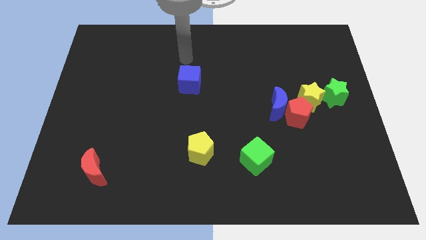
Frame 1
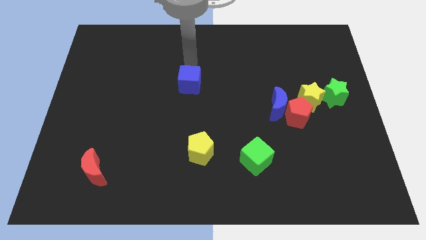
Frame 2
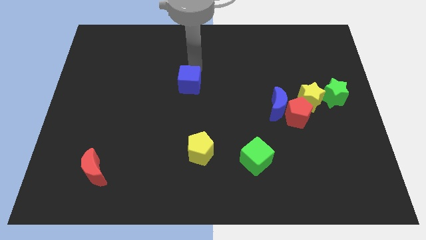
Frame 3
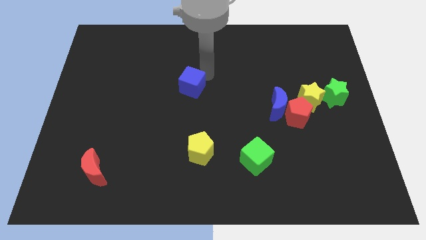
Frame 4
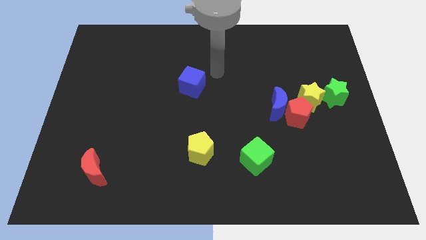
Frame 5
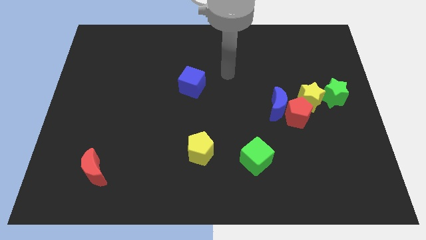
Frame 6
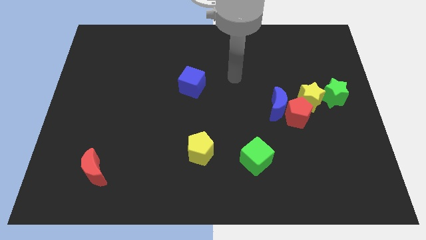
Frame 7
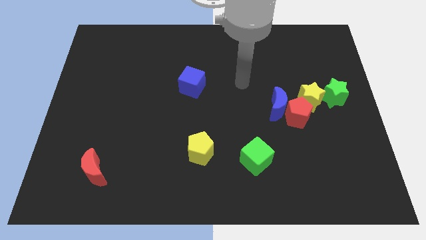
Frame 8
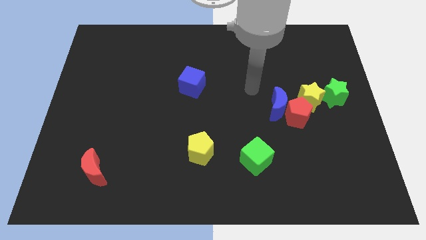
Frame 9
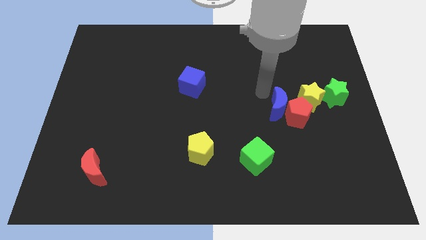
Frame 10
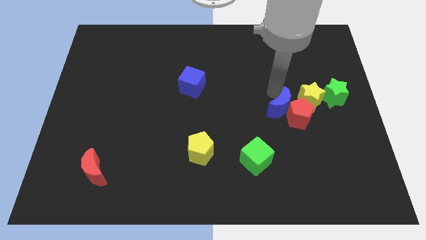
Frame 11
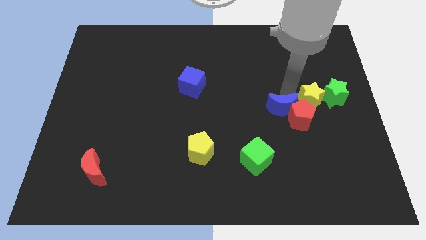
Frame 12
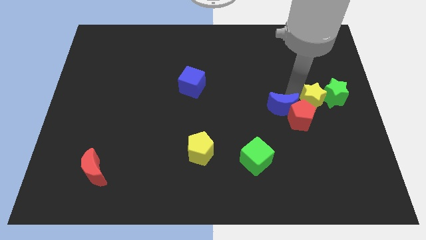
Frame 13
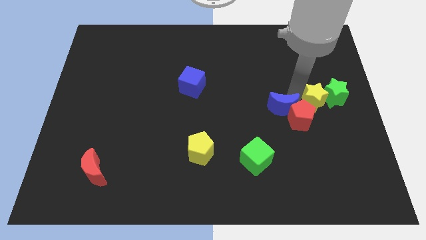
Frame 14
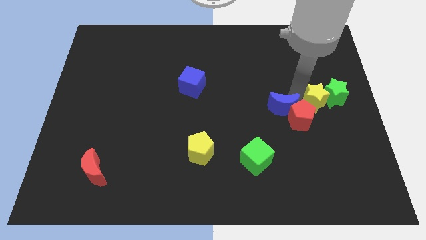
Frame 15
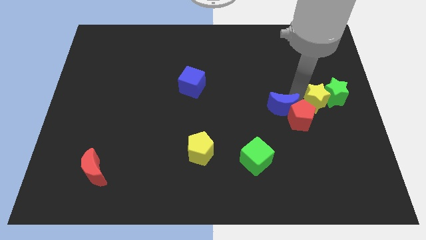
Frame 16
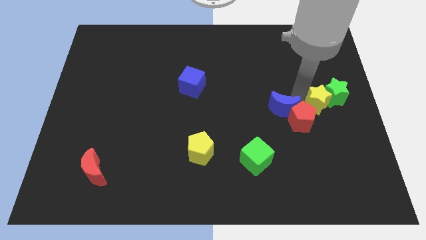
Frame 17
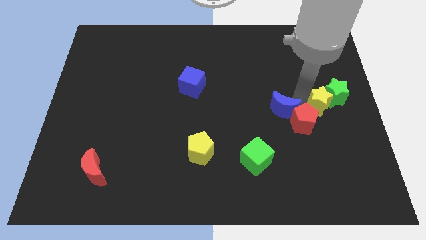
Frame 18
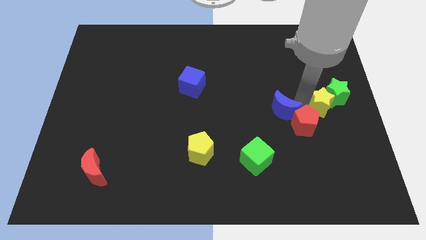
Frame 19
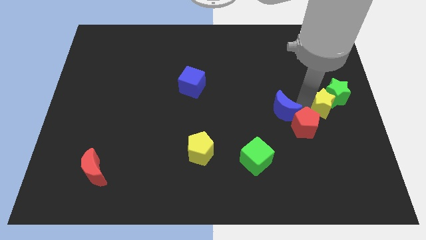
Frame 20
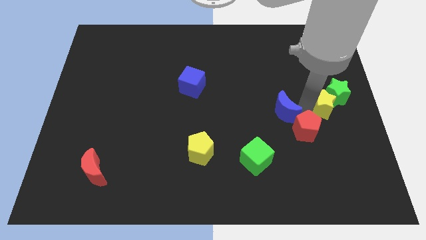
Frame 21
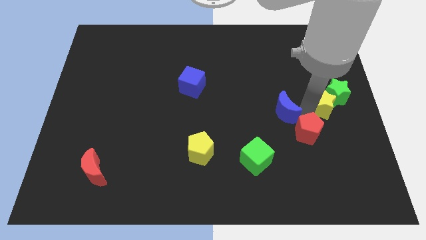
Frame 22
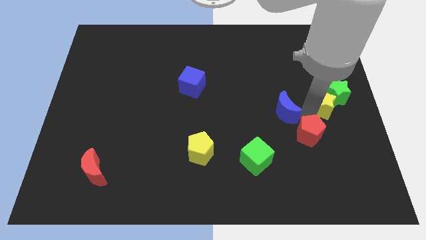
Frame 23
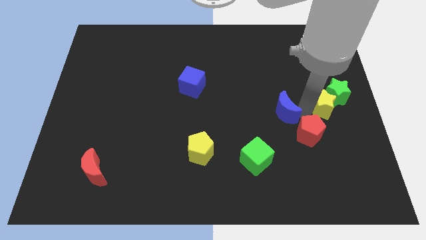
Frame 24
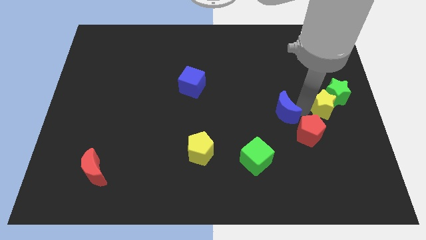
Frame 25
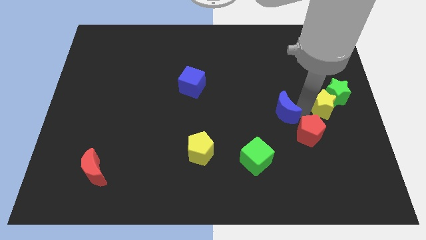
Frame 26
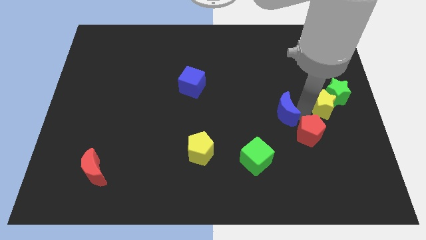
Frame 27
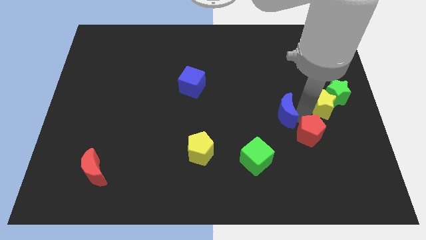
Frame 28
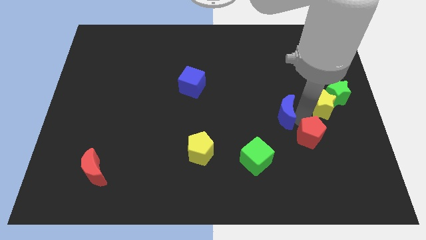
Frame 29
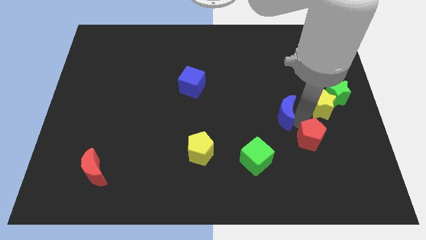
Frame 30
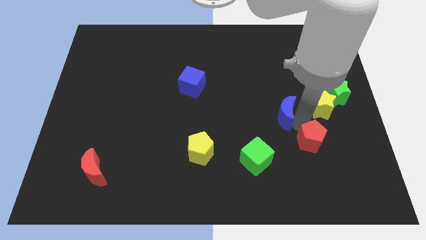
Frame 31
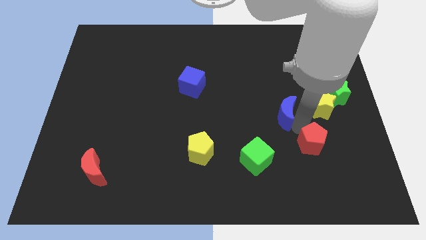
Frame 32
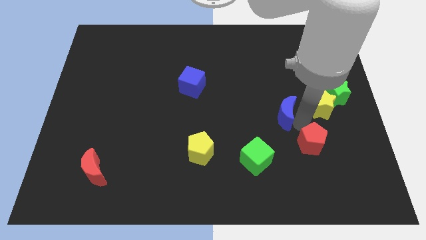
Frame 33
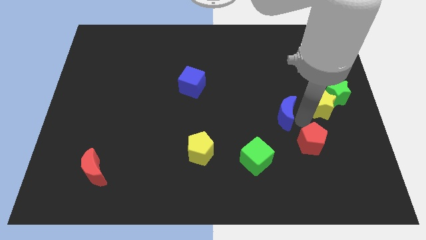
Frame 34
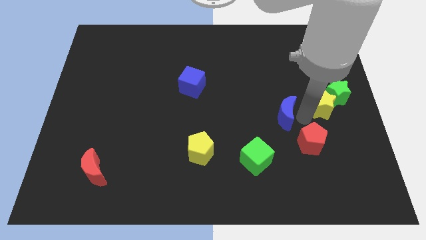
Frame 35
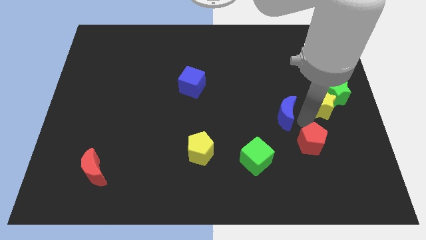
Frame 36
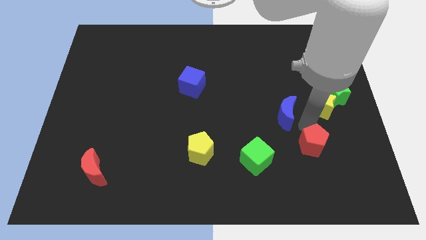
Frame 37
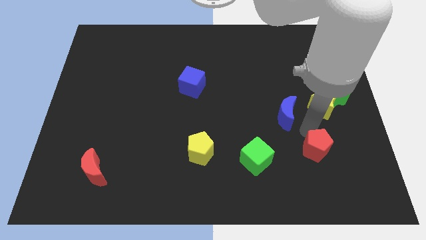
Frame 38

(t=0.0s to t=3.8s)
move the red pentagon away from the blue moon and yellow star

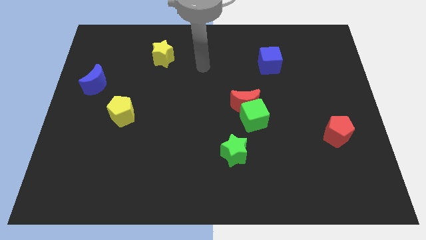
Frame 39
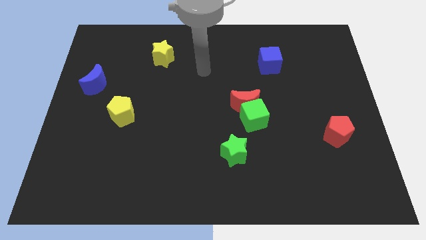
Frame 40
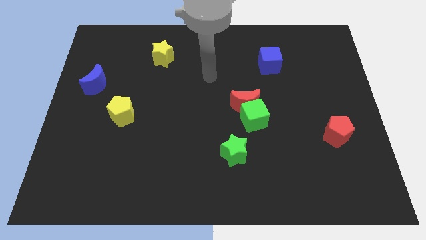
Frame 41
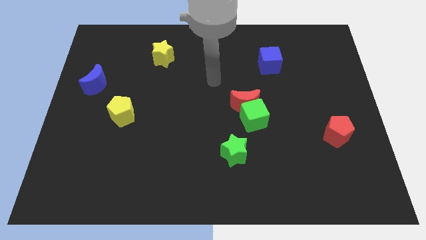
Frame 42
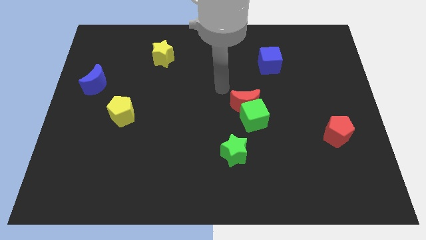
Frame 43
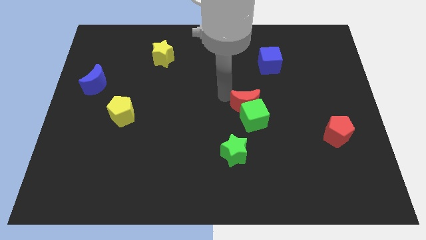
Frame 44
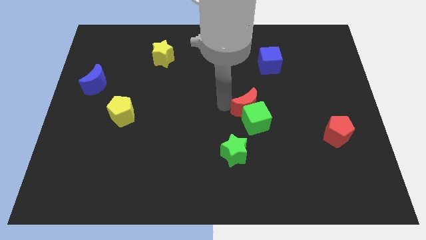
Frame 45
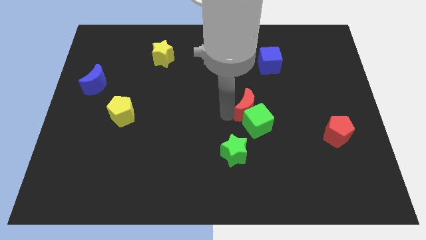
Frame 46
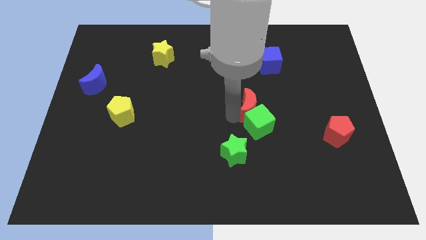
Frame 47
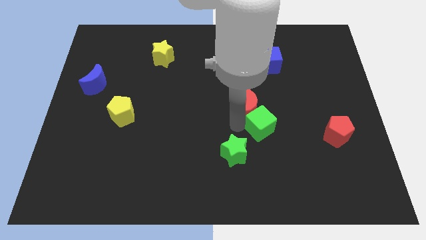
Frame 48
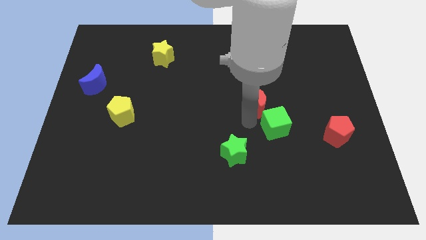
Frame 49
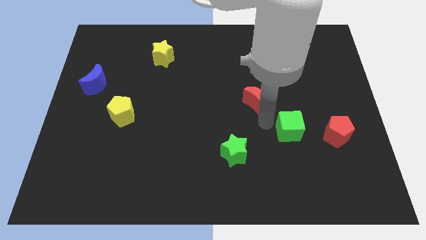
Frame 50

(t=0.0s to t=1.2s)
separate the red moon from the green cube

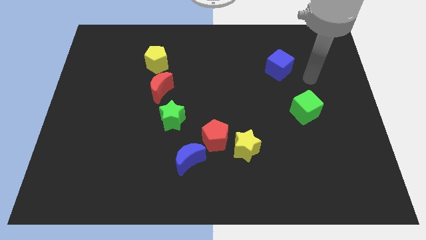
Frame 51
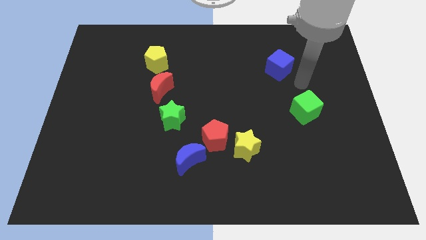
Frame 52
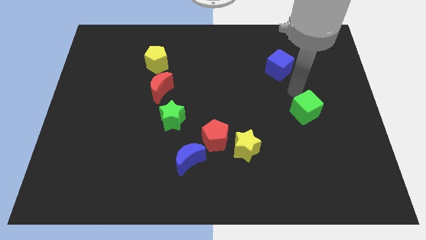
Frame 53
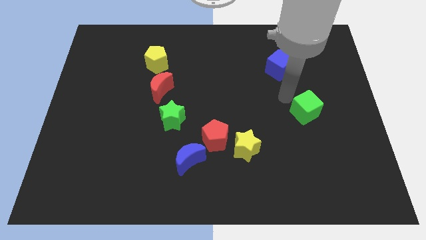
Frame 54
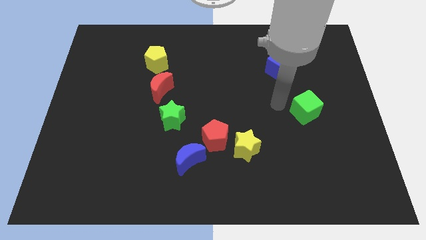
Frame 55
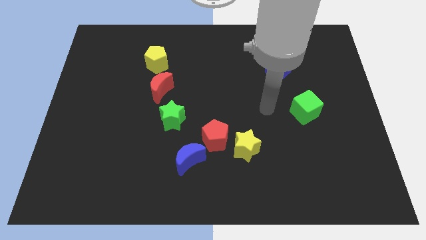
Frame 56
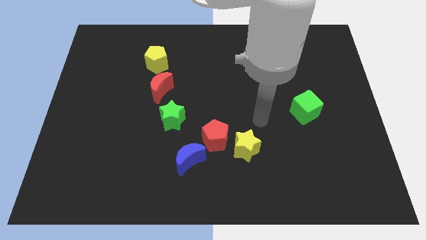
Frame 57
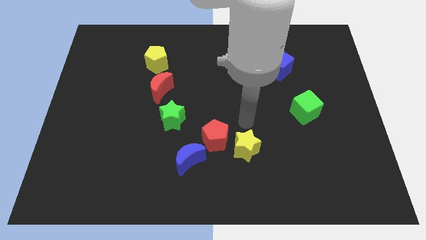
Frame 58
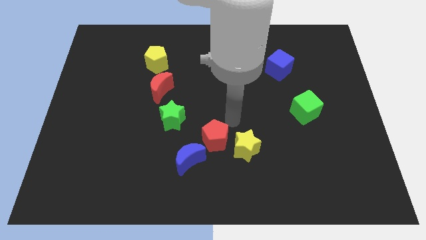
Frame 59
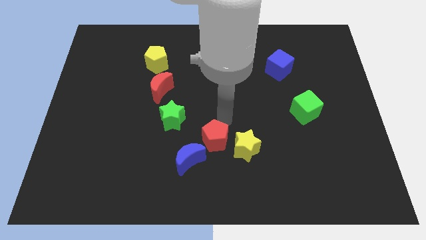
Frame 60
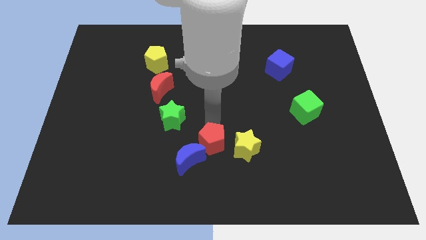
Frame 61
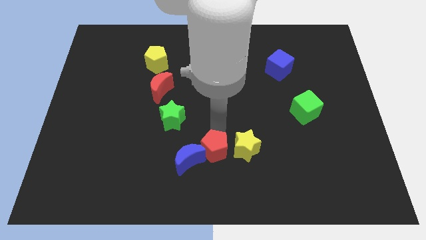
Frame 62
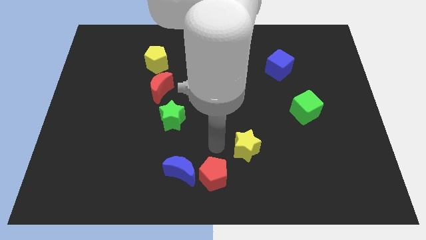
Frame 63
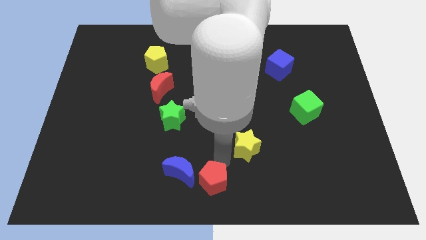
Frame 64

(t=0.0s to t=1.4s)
pull the yellow star apart from the red pentagon

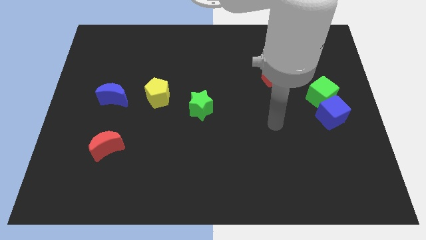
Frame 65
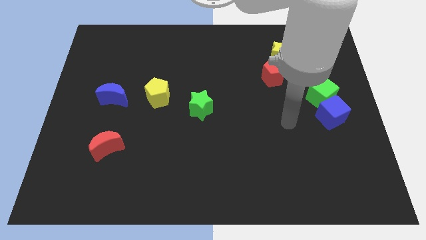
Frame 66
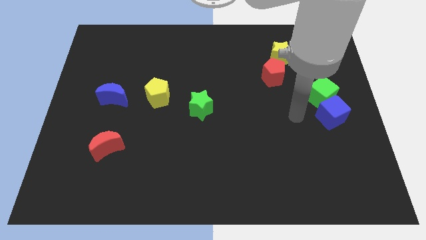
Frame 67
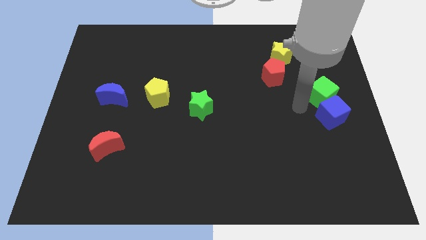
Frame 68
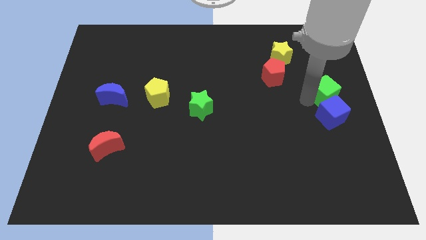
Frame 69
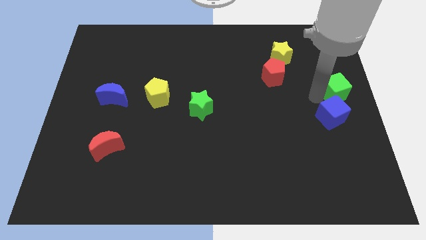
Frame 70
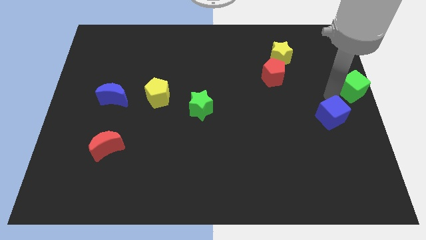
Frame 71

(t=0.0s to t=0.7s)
separate the blue cube from the green cube

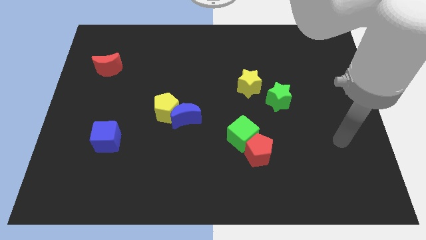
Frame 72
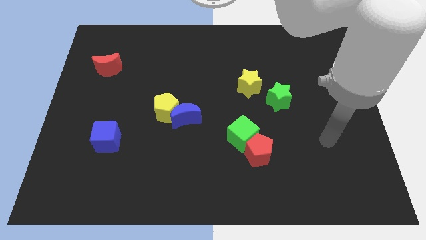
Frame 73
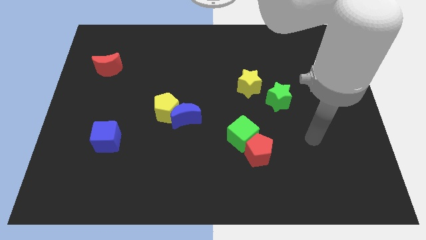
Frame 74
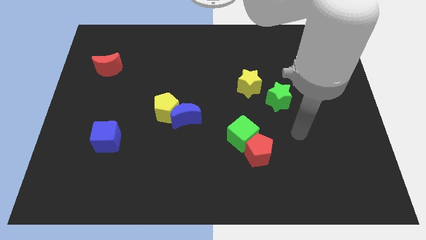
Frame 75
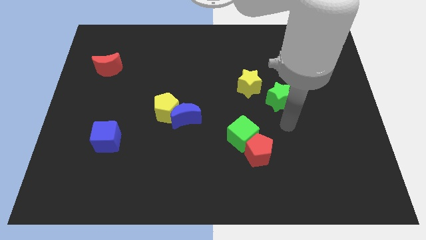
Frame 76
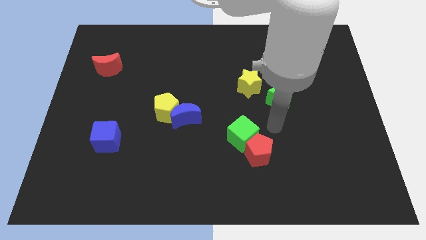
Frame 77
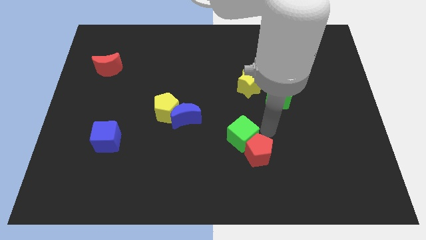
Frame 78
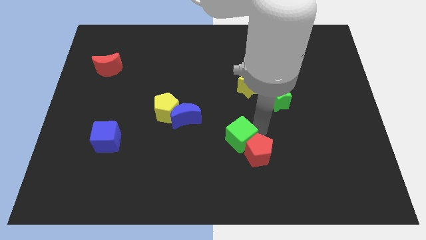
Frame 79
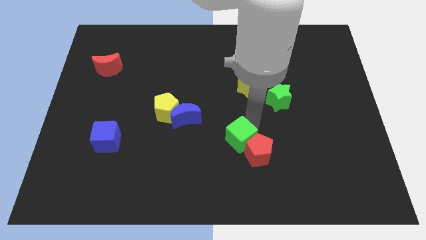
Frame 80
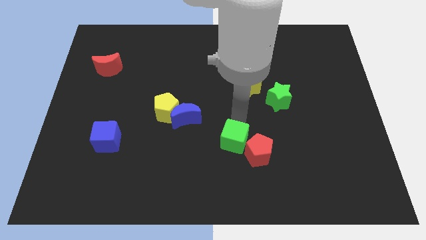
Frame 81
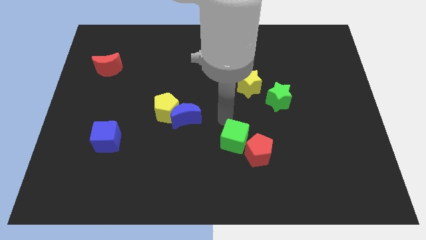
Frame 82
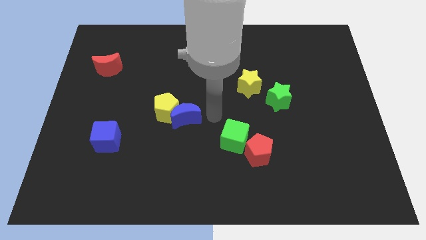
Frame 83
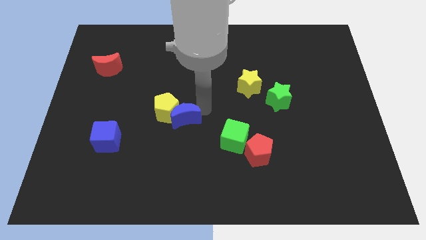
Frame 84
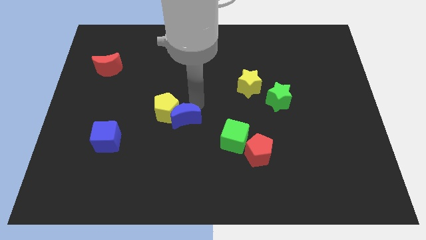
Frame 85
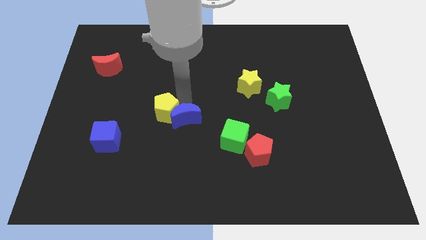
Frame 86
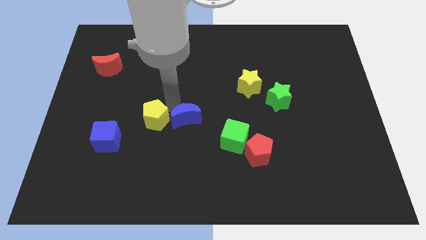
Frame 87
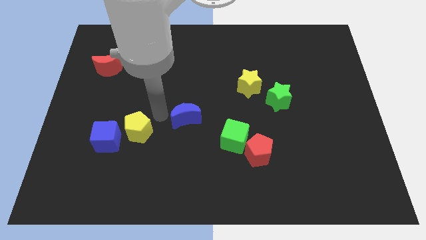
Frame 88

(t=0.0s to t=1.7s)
pull the blue moon apart from the yellow pentagon

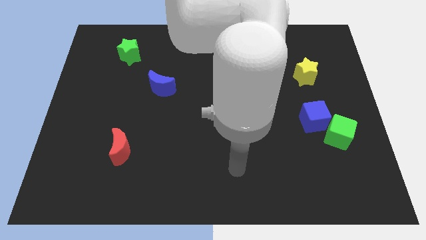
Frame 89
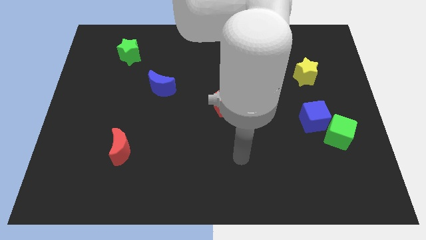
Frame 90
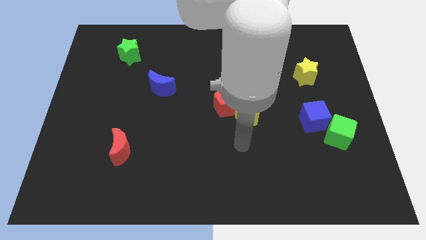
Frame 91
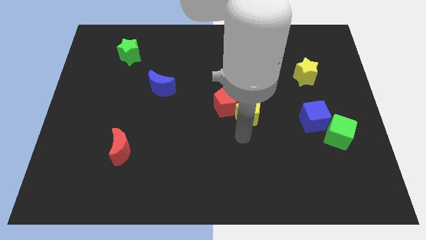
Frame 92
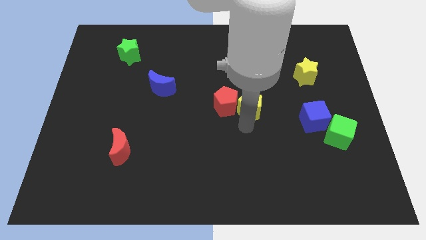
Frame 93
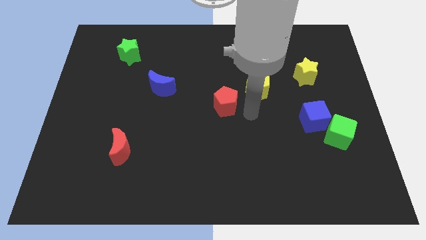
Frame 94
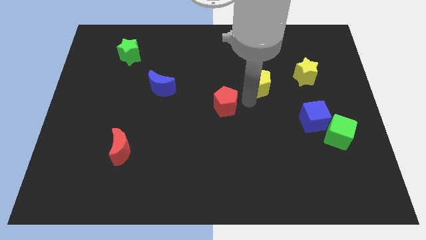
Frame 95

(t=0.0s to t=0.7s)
move the red pentagon away from the yellow pentagon
